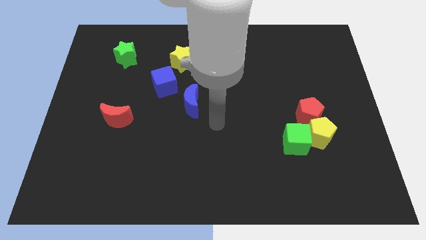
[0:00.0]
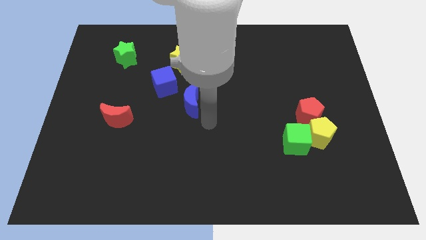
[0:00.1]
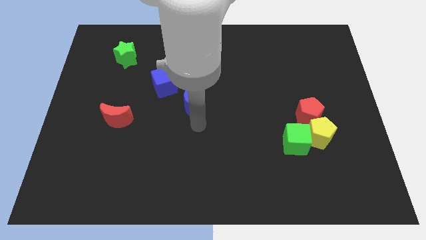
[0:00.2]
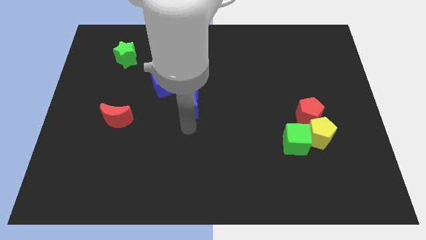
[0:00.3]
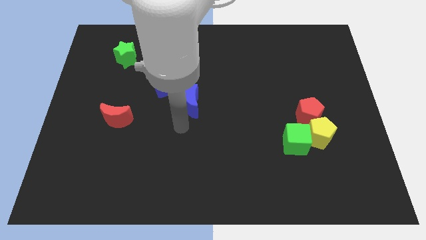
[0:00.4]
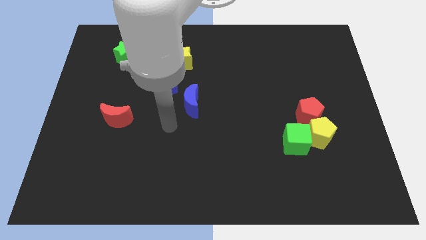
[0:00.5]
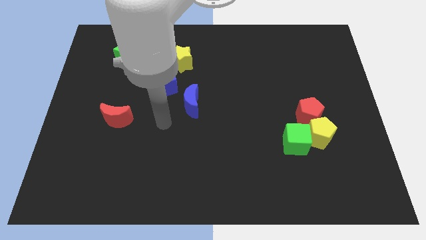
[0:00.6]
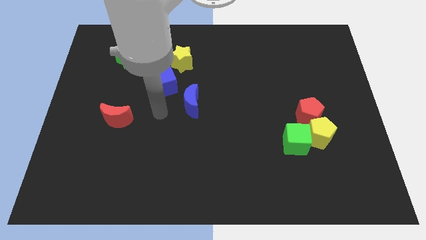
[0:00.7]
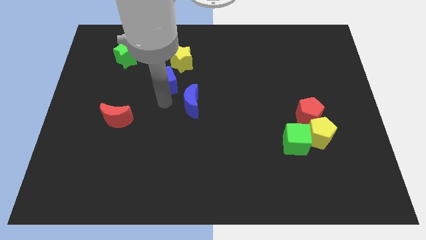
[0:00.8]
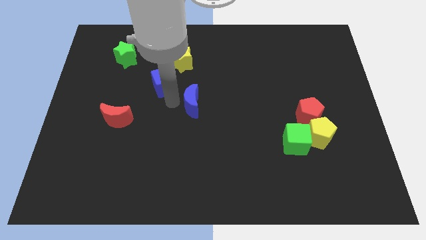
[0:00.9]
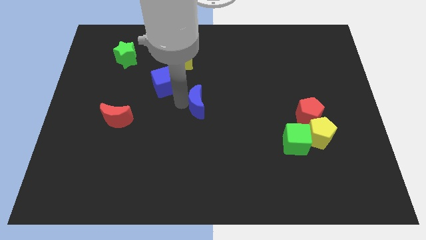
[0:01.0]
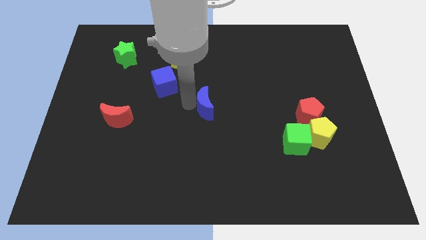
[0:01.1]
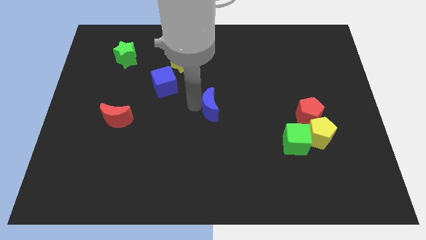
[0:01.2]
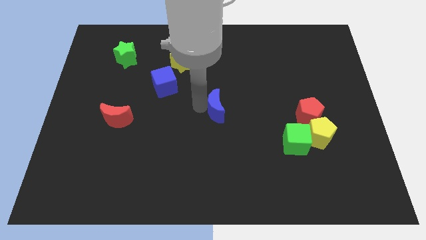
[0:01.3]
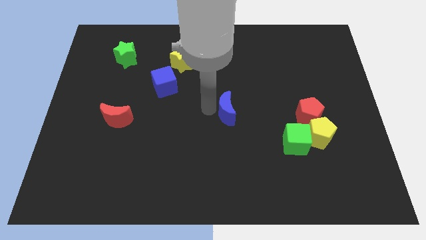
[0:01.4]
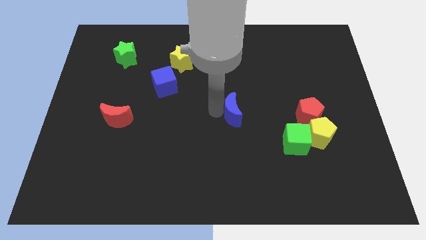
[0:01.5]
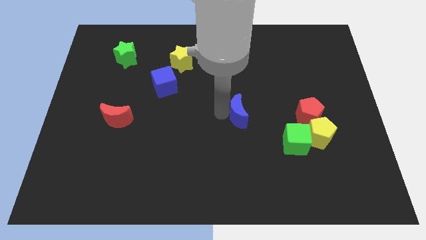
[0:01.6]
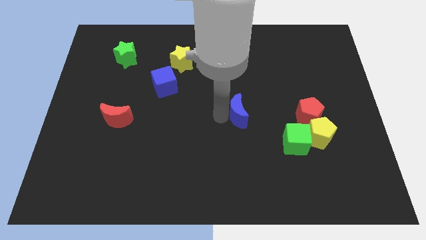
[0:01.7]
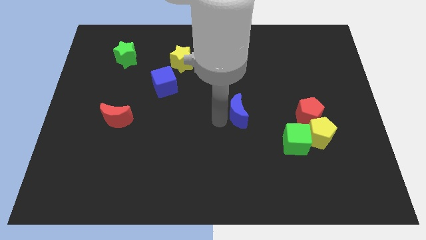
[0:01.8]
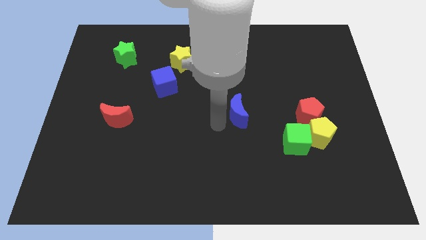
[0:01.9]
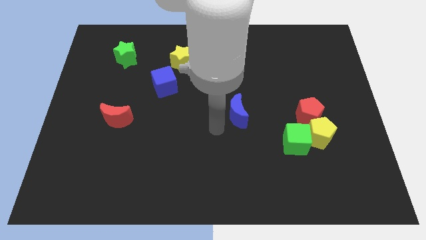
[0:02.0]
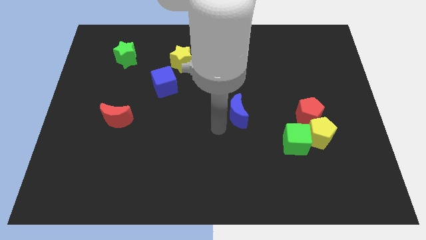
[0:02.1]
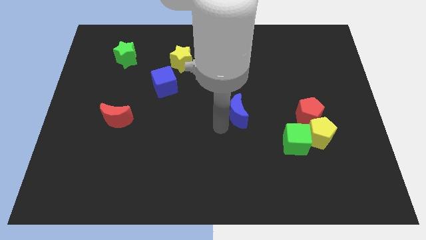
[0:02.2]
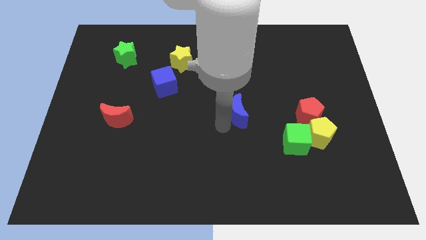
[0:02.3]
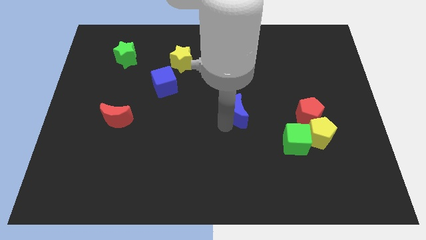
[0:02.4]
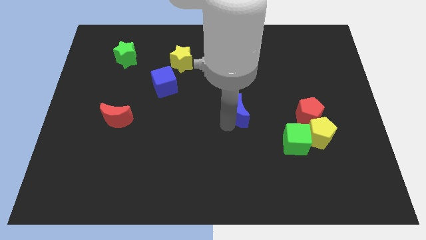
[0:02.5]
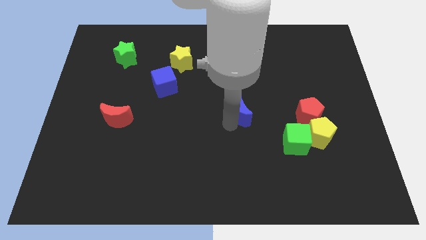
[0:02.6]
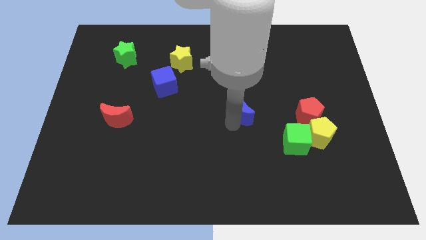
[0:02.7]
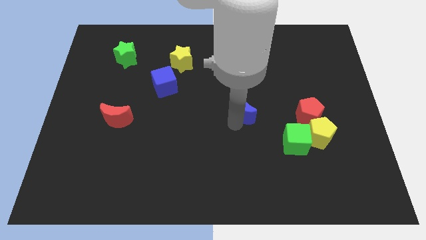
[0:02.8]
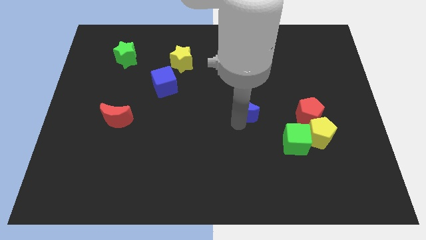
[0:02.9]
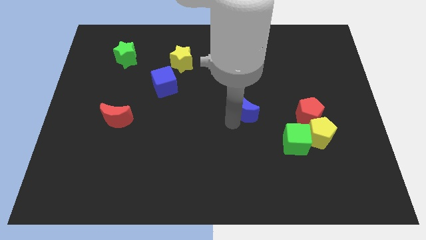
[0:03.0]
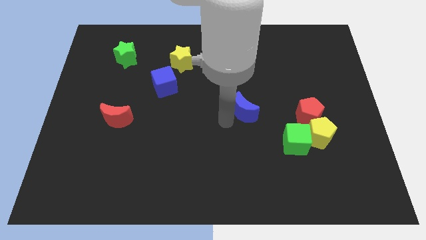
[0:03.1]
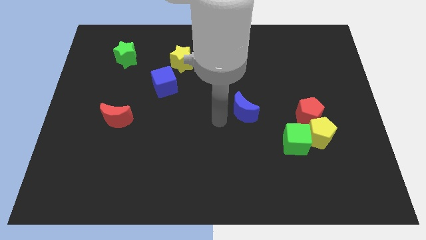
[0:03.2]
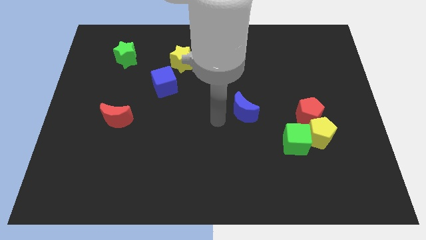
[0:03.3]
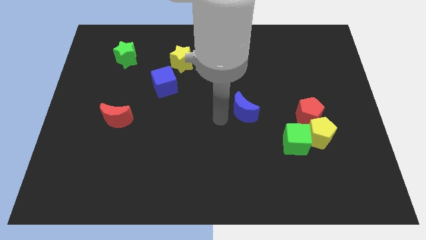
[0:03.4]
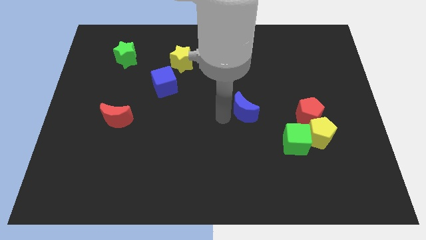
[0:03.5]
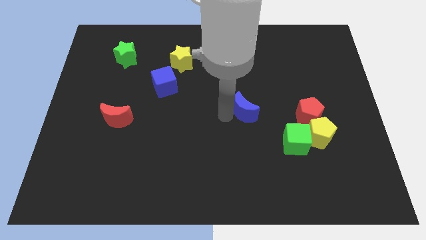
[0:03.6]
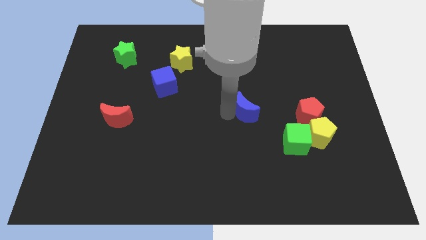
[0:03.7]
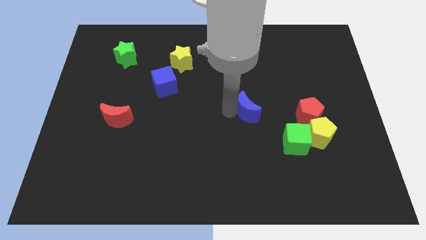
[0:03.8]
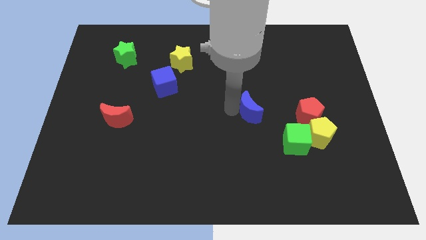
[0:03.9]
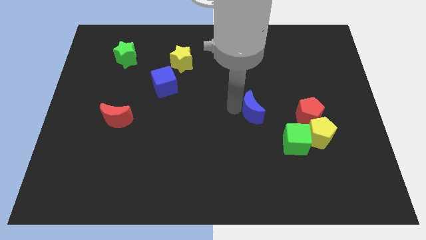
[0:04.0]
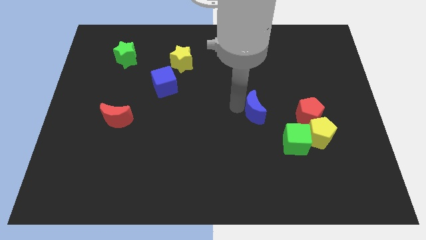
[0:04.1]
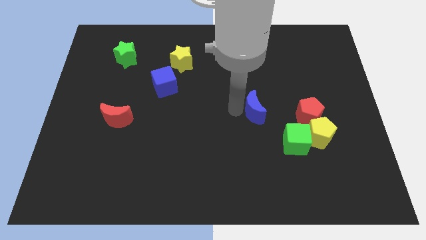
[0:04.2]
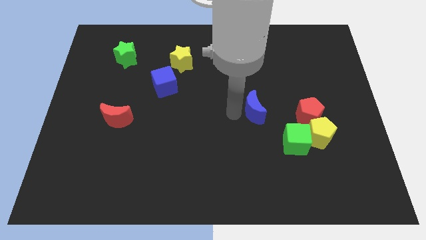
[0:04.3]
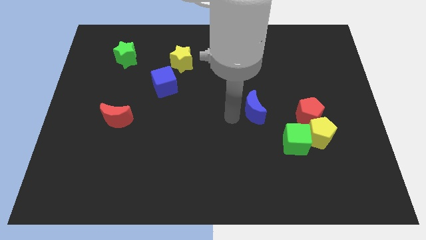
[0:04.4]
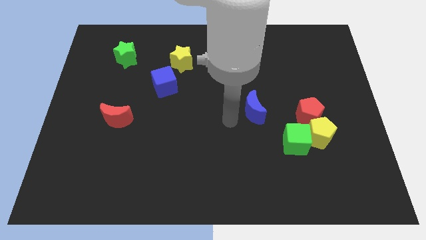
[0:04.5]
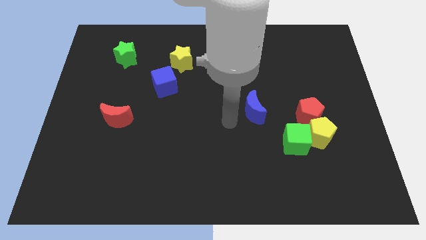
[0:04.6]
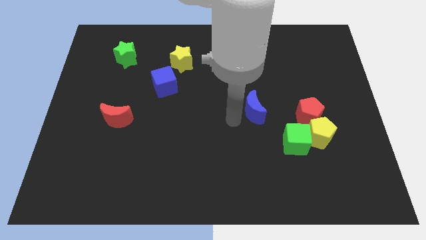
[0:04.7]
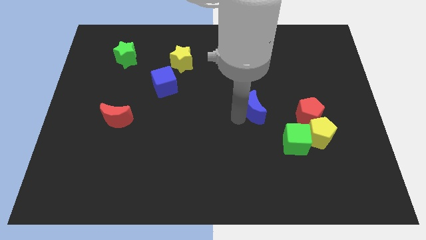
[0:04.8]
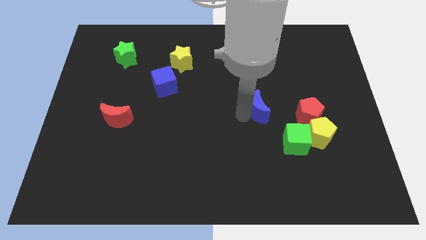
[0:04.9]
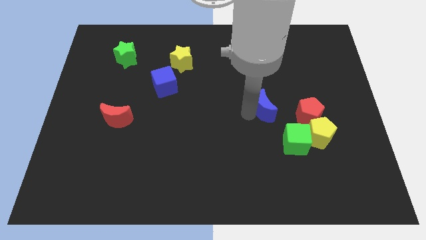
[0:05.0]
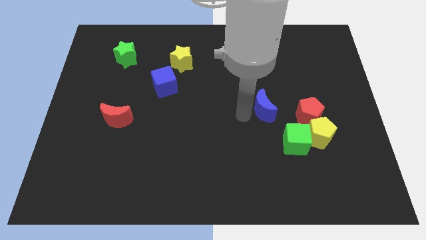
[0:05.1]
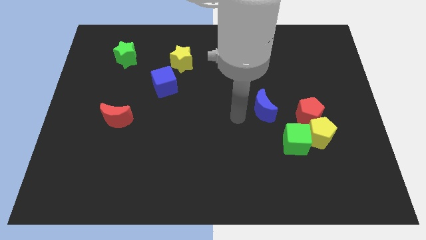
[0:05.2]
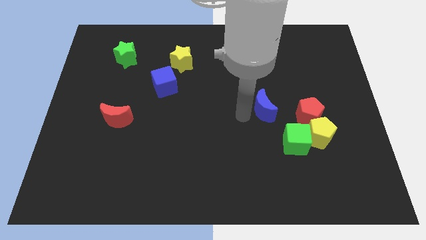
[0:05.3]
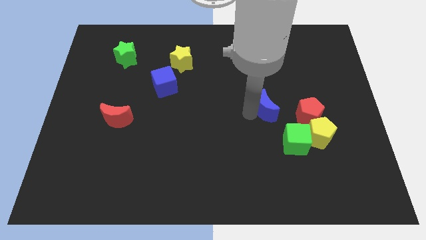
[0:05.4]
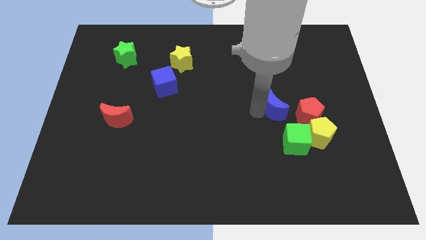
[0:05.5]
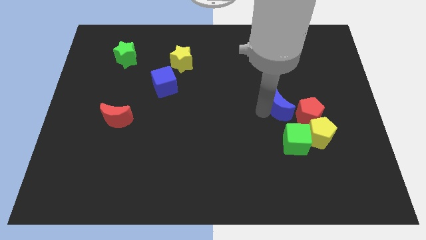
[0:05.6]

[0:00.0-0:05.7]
move the blue moon to the right

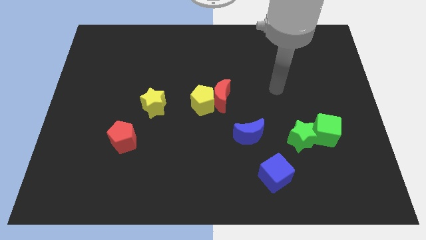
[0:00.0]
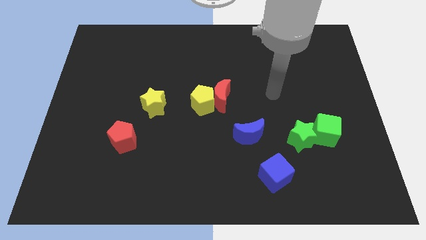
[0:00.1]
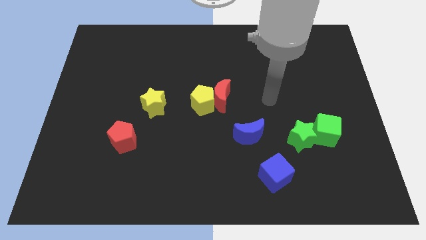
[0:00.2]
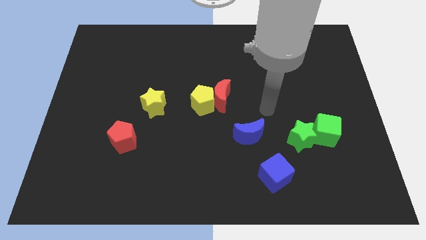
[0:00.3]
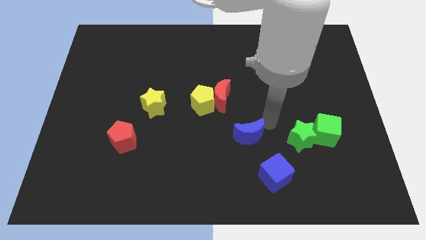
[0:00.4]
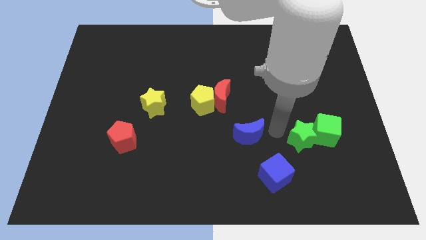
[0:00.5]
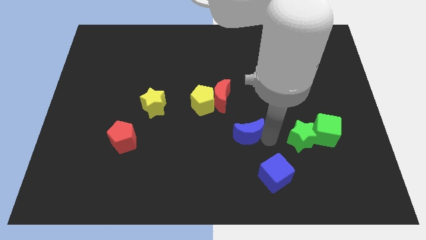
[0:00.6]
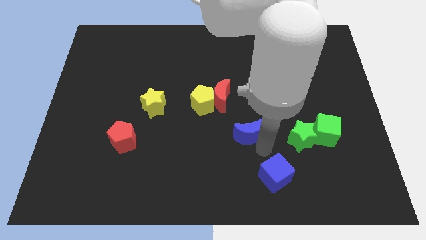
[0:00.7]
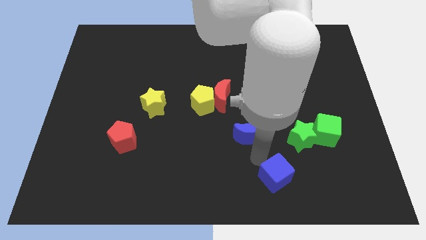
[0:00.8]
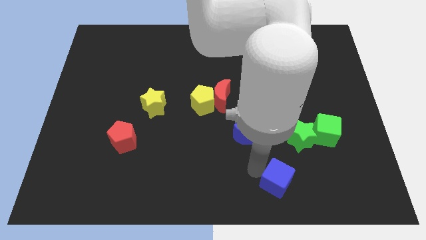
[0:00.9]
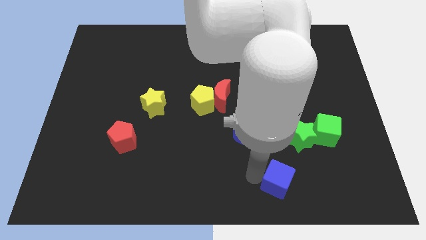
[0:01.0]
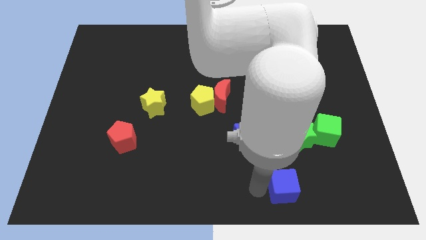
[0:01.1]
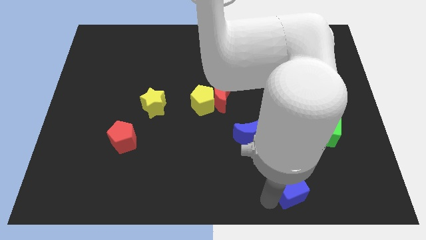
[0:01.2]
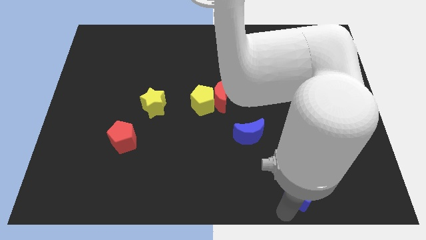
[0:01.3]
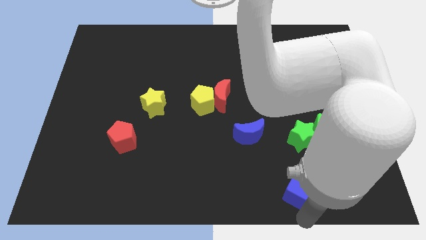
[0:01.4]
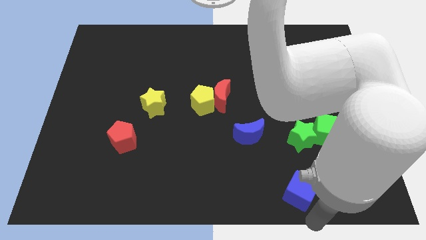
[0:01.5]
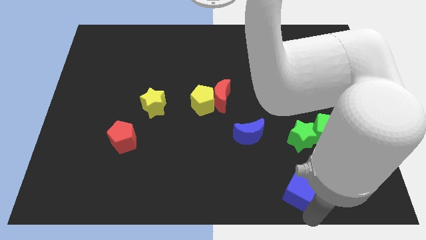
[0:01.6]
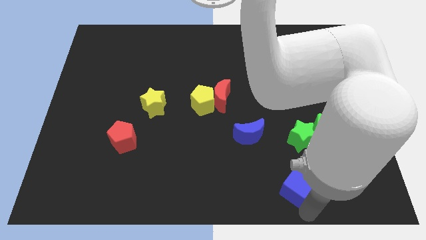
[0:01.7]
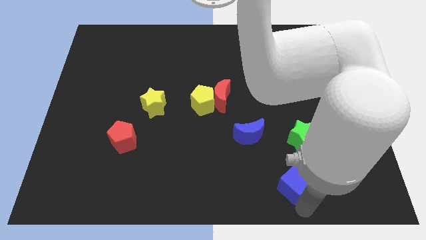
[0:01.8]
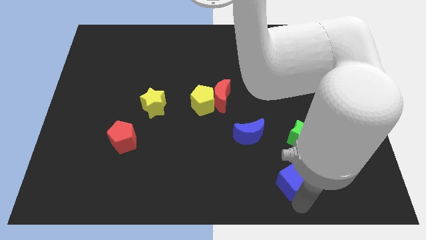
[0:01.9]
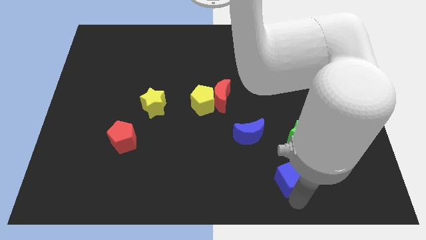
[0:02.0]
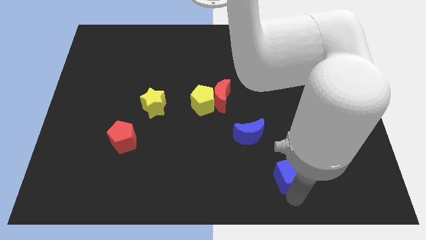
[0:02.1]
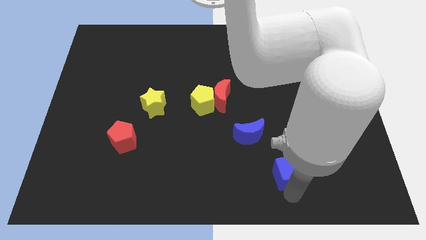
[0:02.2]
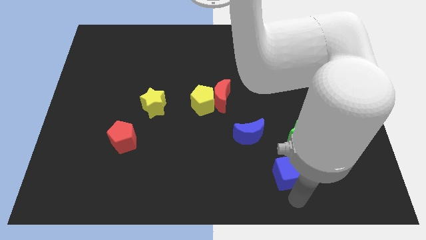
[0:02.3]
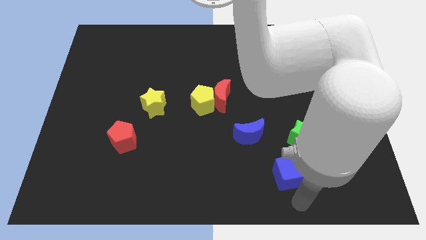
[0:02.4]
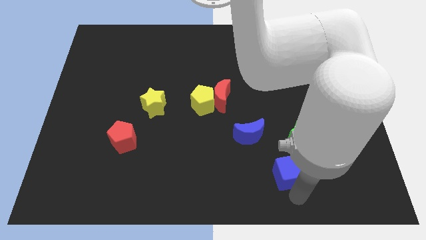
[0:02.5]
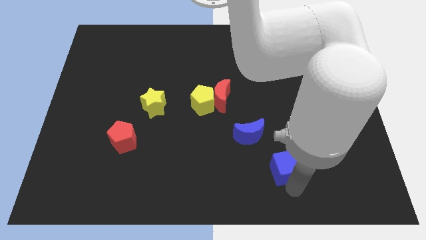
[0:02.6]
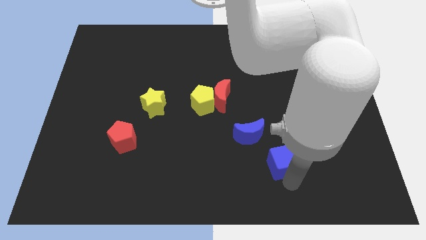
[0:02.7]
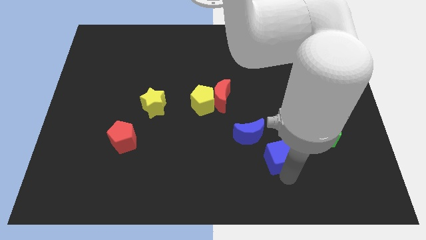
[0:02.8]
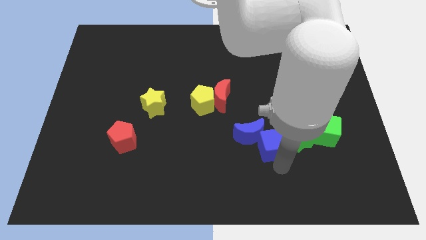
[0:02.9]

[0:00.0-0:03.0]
push the blue cube upwards a little
